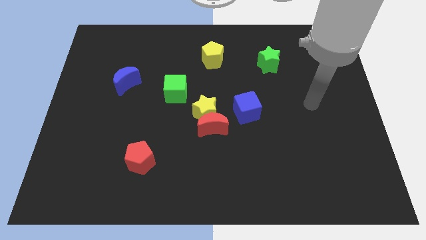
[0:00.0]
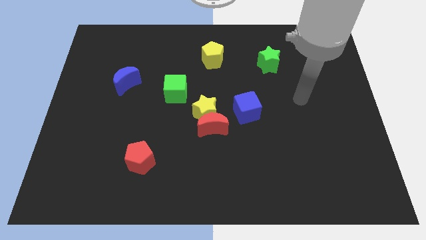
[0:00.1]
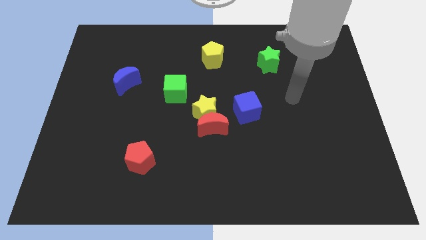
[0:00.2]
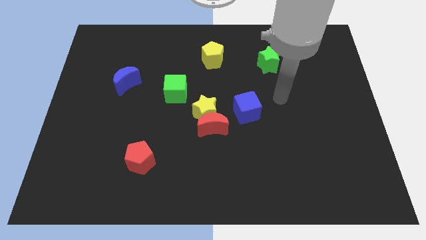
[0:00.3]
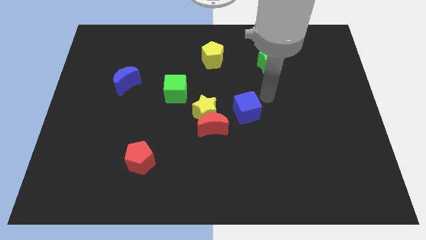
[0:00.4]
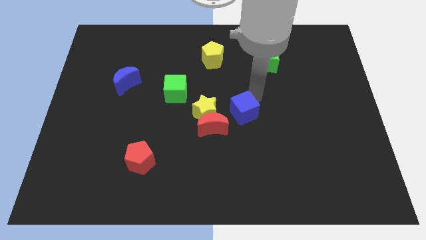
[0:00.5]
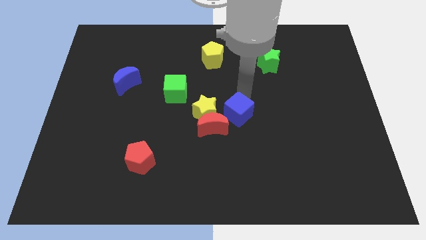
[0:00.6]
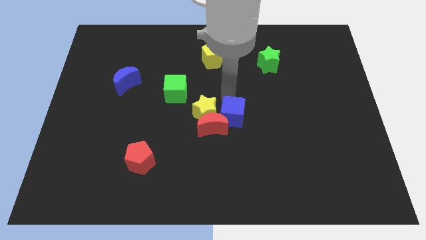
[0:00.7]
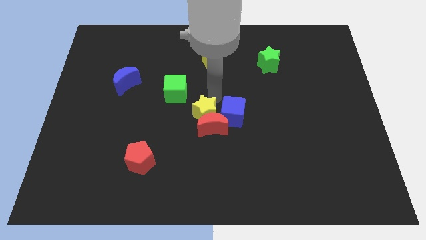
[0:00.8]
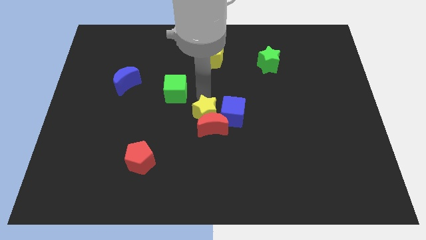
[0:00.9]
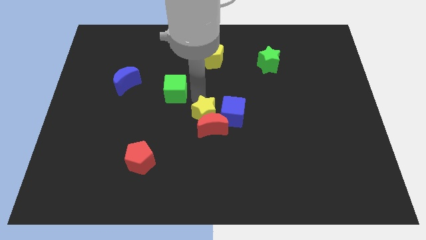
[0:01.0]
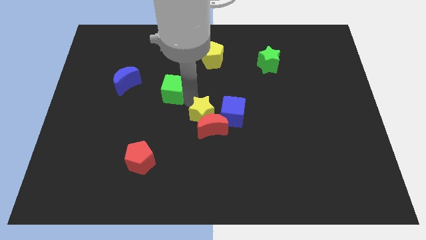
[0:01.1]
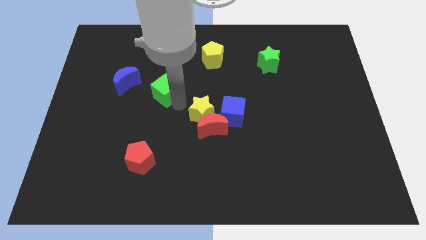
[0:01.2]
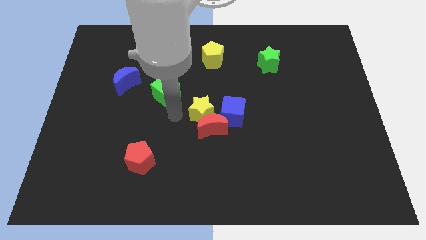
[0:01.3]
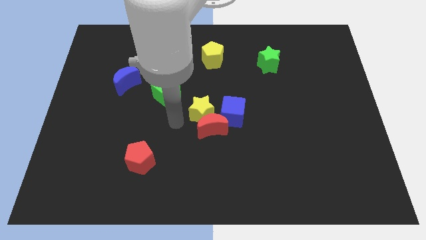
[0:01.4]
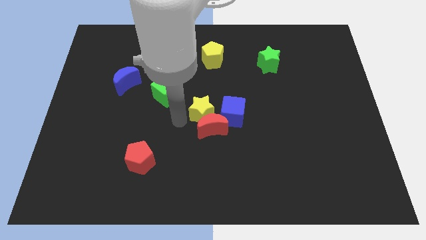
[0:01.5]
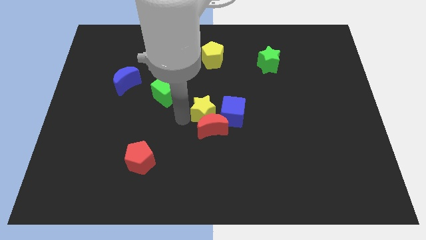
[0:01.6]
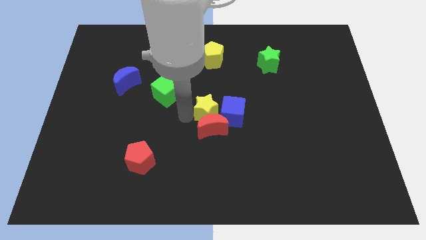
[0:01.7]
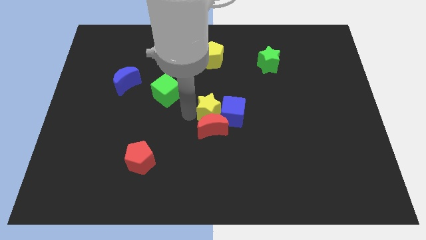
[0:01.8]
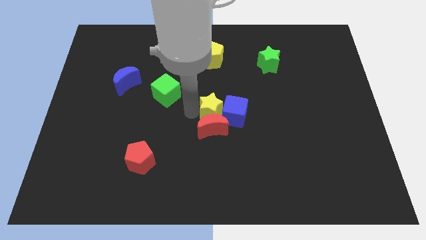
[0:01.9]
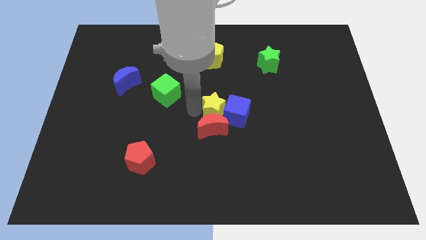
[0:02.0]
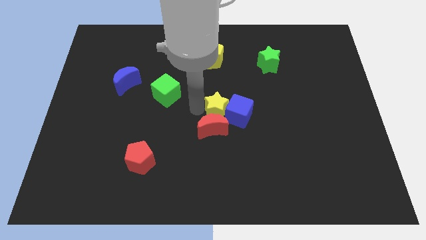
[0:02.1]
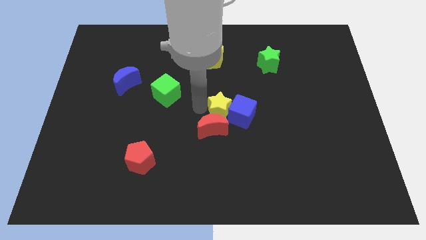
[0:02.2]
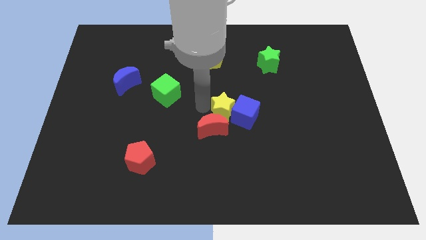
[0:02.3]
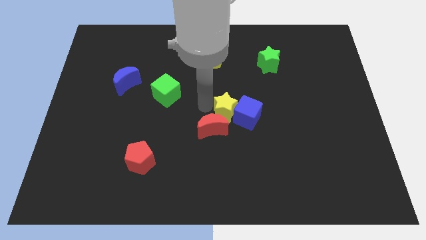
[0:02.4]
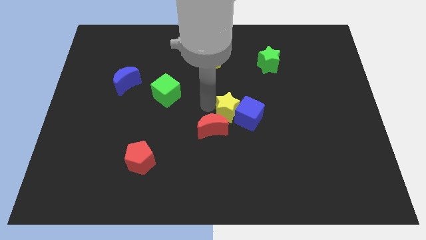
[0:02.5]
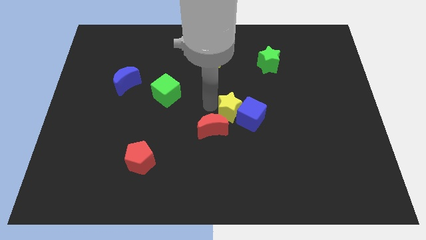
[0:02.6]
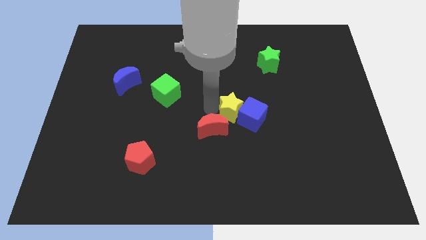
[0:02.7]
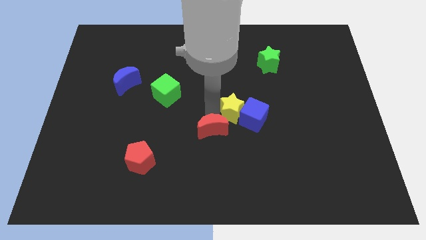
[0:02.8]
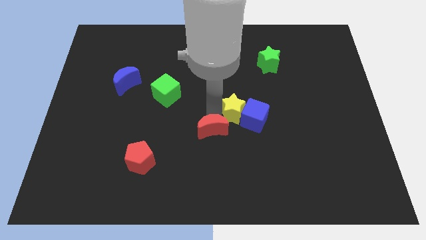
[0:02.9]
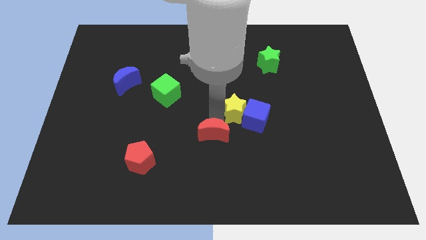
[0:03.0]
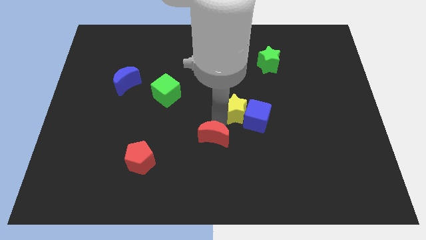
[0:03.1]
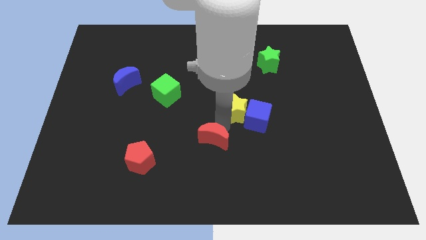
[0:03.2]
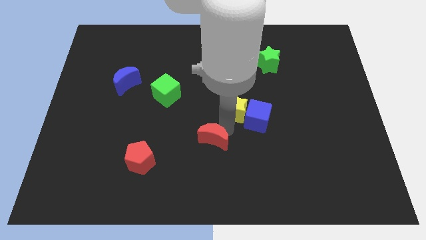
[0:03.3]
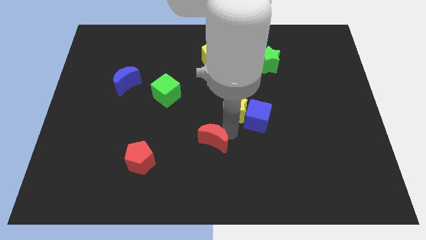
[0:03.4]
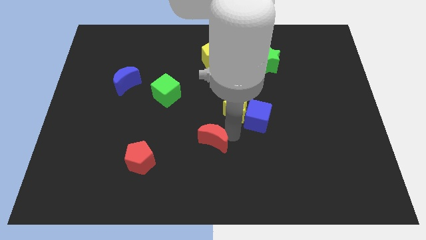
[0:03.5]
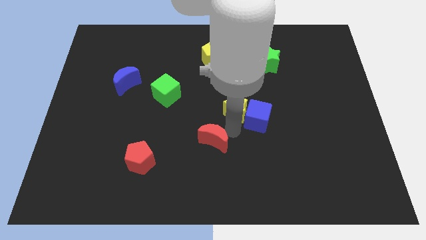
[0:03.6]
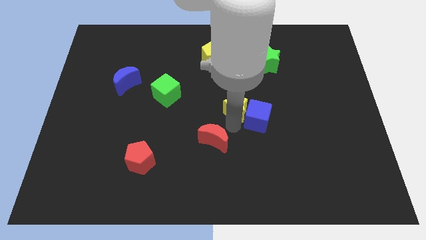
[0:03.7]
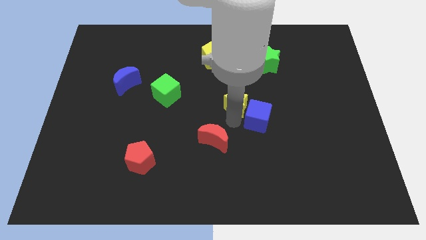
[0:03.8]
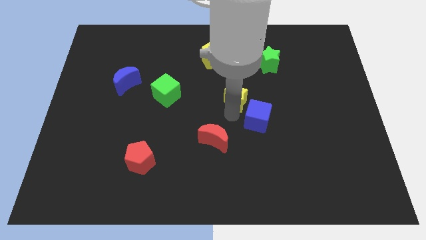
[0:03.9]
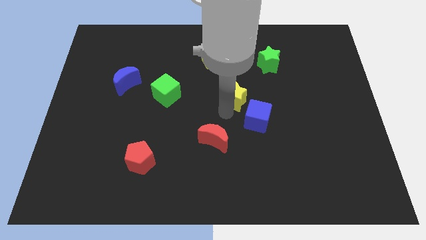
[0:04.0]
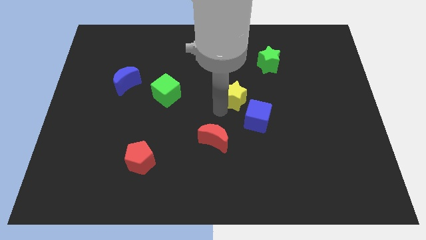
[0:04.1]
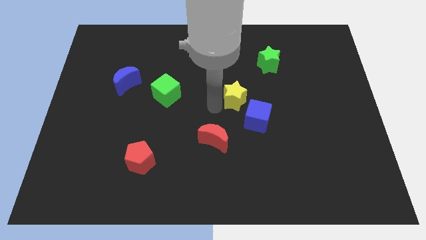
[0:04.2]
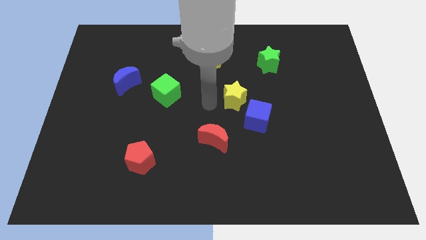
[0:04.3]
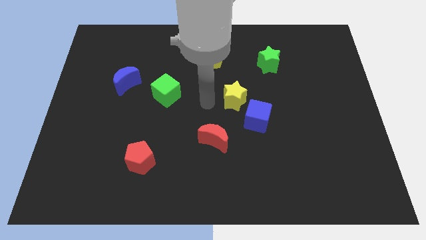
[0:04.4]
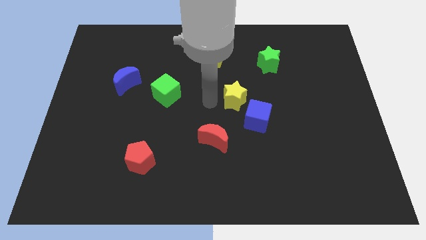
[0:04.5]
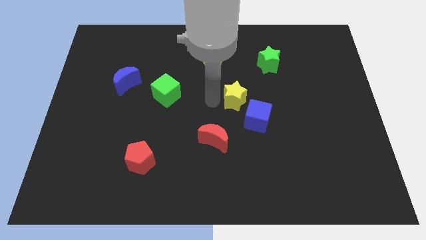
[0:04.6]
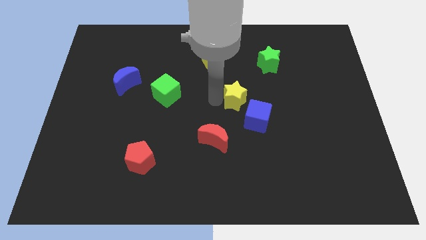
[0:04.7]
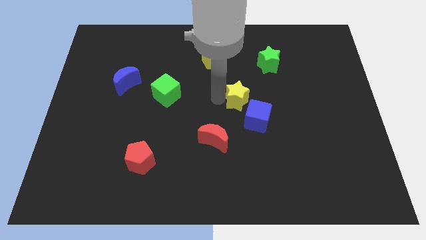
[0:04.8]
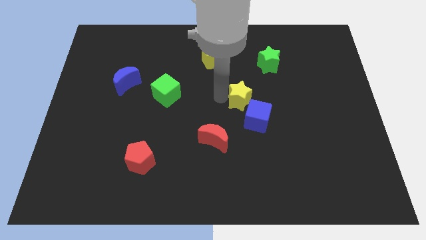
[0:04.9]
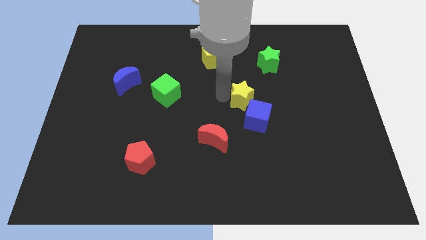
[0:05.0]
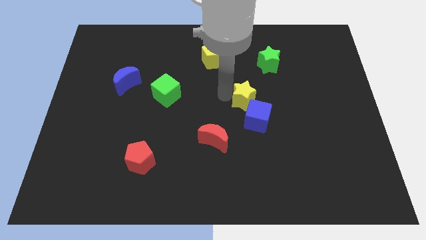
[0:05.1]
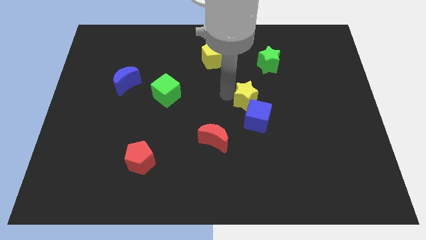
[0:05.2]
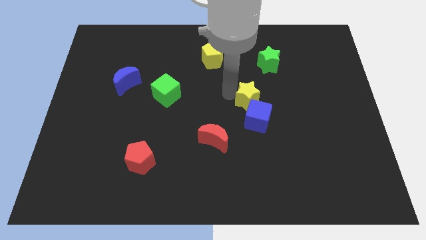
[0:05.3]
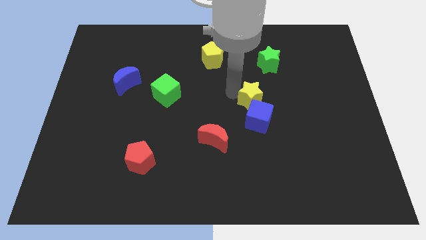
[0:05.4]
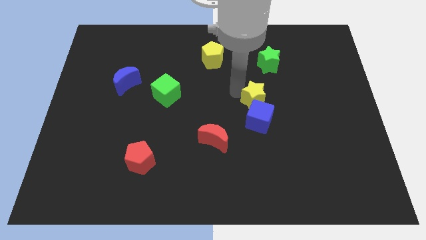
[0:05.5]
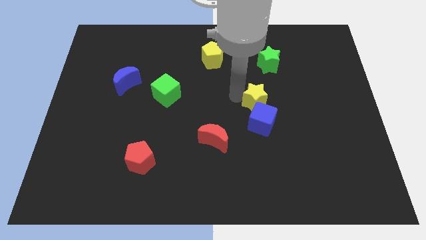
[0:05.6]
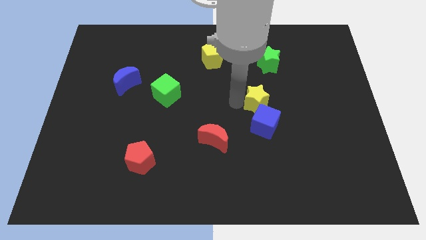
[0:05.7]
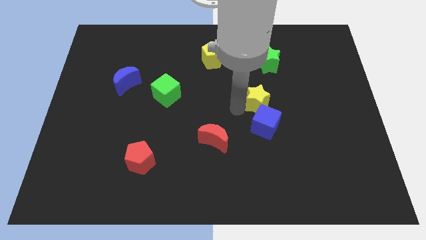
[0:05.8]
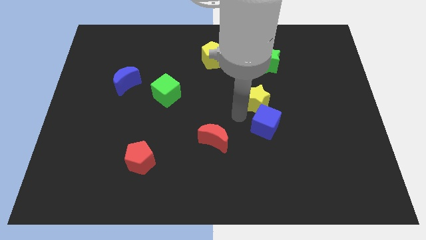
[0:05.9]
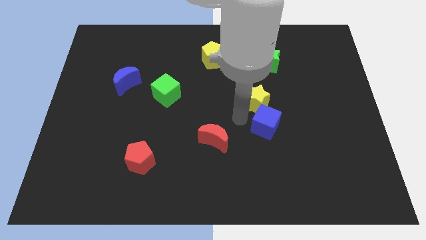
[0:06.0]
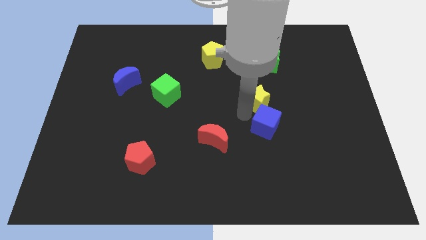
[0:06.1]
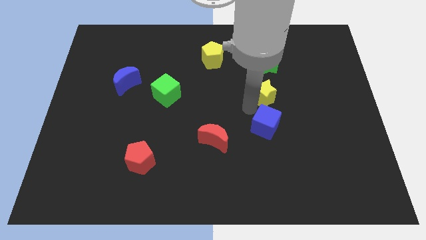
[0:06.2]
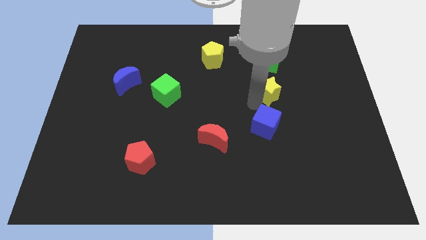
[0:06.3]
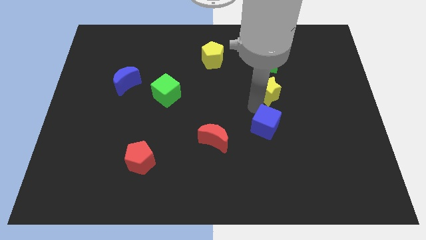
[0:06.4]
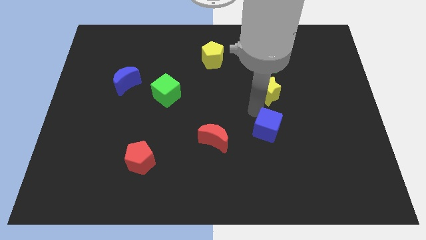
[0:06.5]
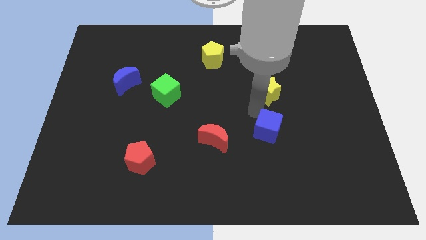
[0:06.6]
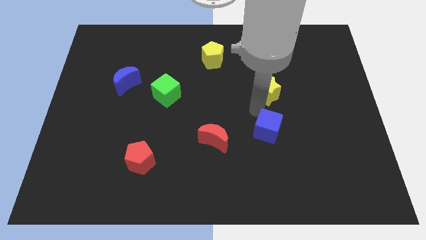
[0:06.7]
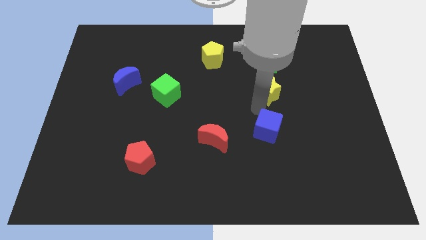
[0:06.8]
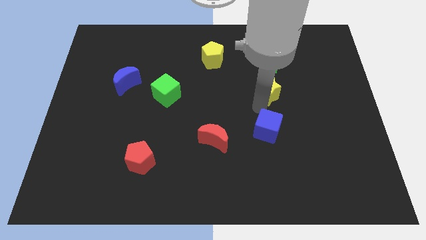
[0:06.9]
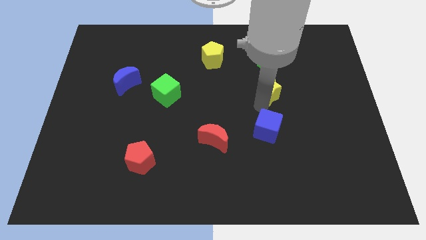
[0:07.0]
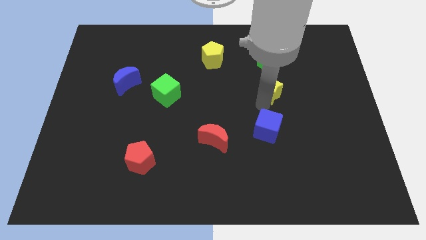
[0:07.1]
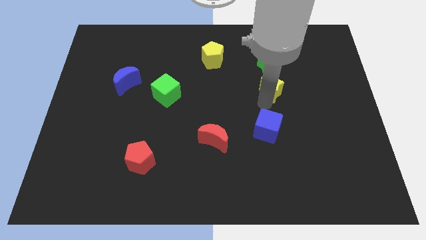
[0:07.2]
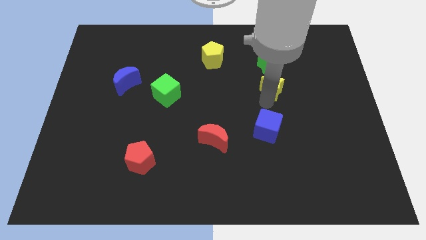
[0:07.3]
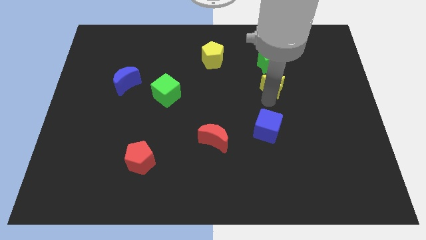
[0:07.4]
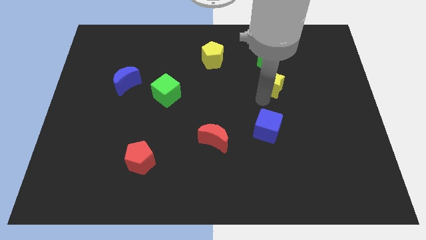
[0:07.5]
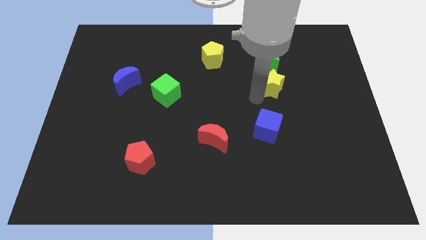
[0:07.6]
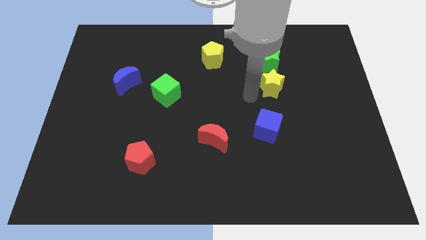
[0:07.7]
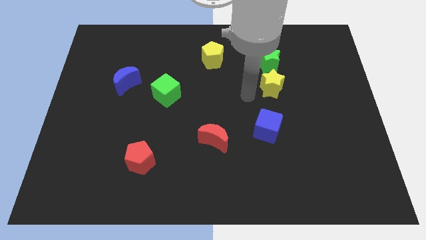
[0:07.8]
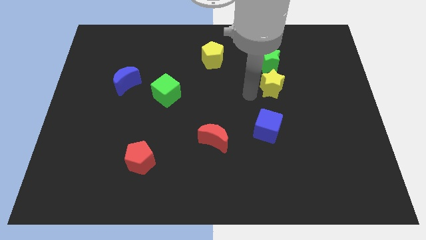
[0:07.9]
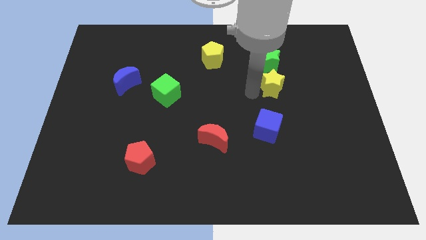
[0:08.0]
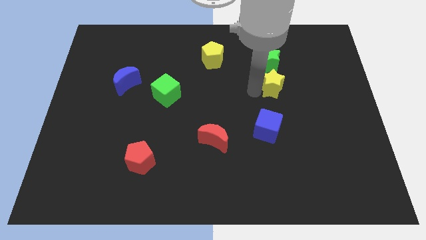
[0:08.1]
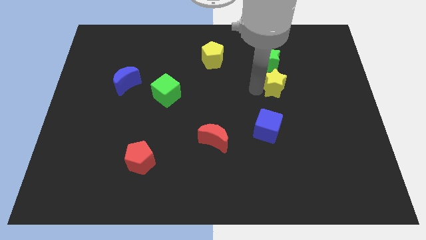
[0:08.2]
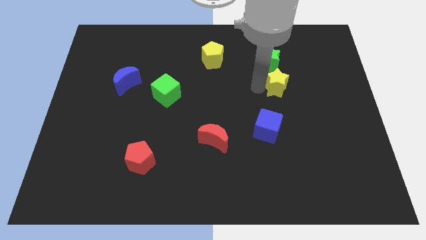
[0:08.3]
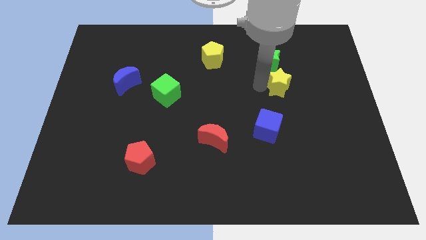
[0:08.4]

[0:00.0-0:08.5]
put the yellow star to the bottom right of the green star
